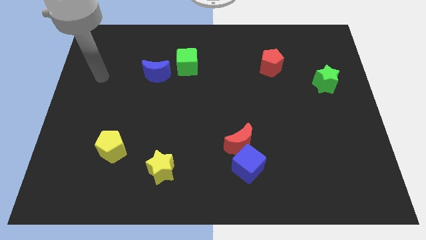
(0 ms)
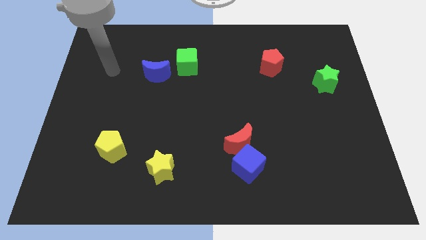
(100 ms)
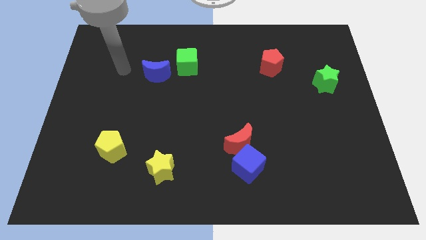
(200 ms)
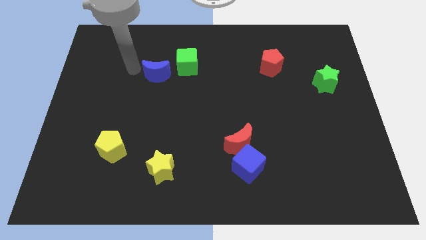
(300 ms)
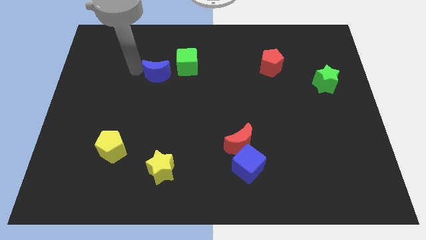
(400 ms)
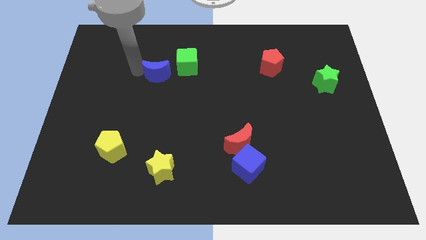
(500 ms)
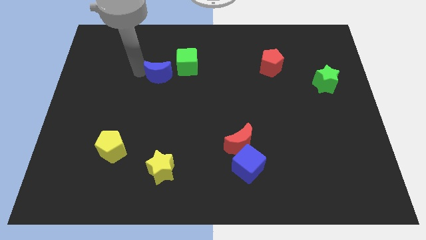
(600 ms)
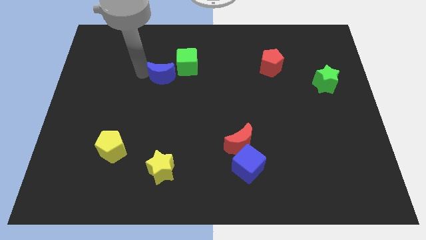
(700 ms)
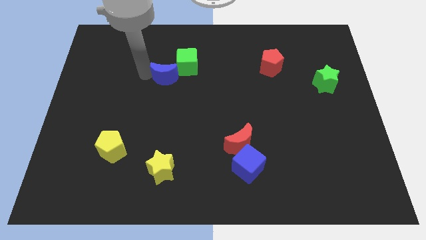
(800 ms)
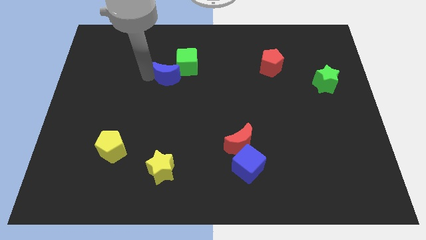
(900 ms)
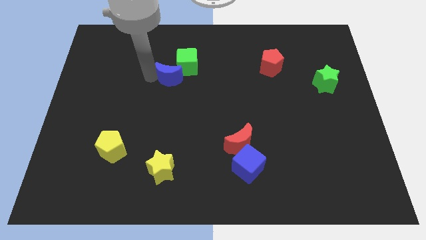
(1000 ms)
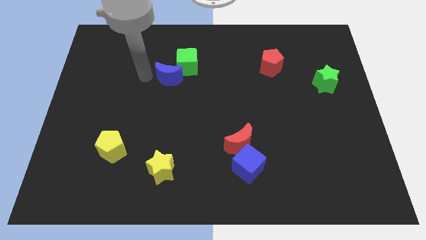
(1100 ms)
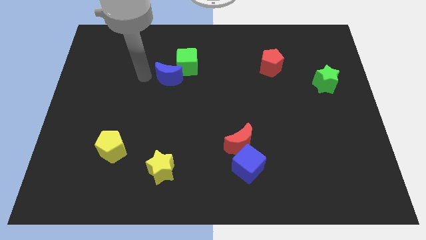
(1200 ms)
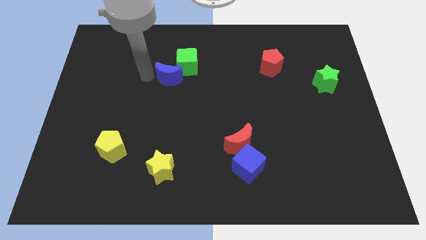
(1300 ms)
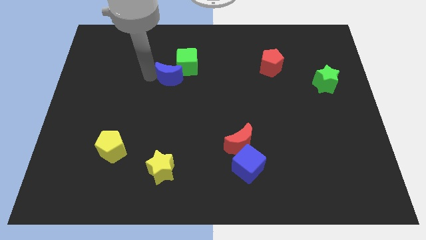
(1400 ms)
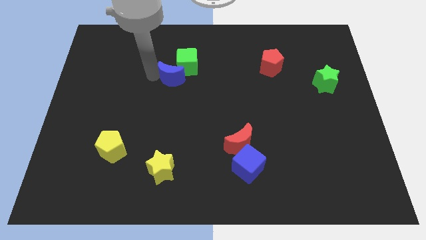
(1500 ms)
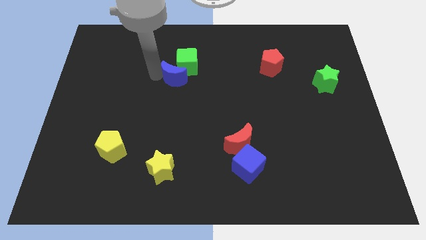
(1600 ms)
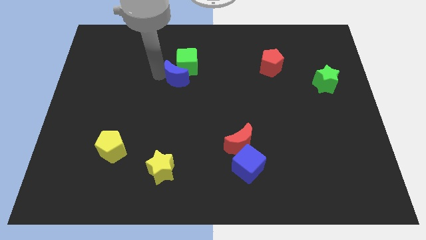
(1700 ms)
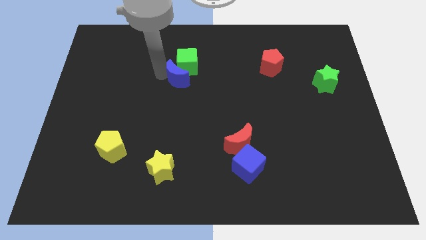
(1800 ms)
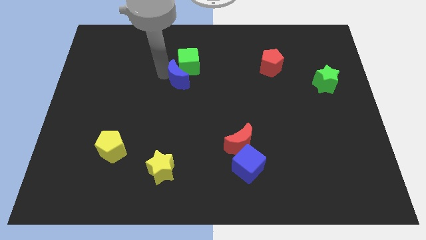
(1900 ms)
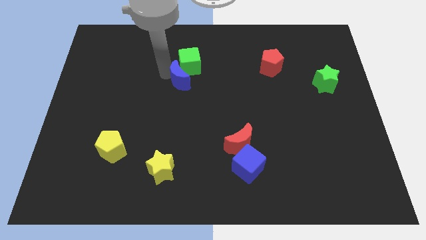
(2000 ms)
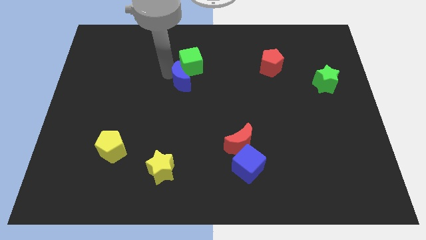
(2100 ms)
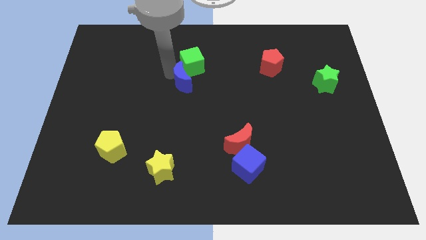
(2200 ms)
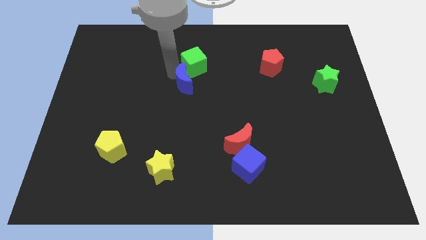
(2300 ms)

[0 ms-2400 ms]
slightly push the blue moon to the right

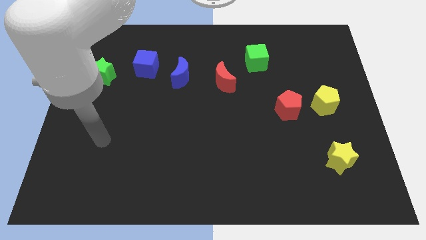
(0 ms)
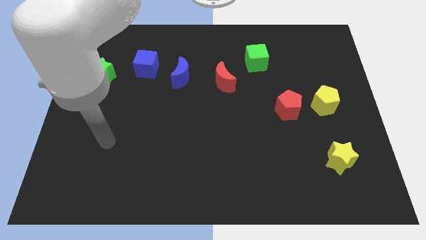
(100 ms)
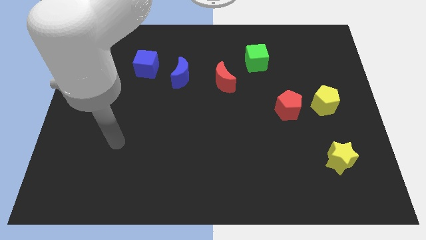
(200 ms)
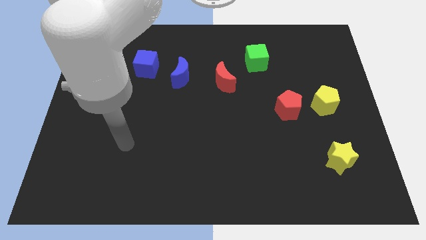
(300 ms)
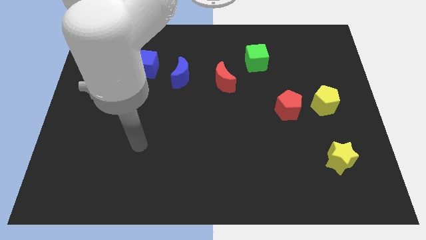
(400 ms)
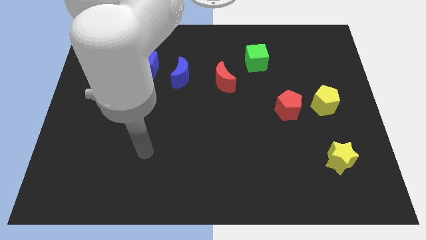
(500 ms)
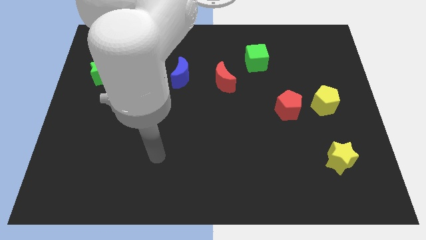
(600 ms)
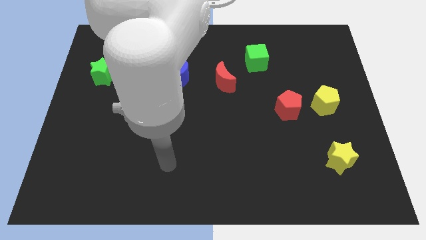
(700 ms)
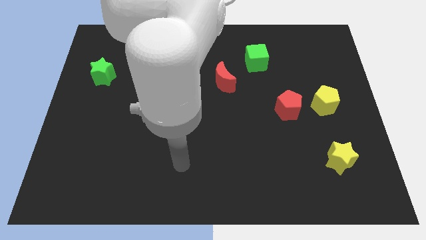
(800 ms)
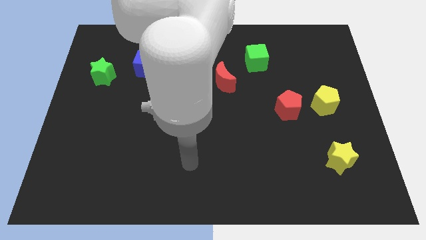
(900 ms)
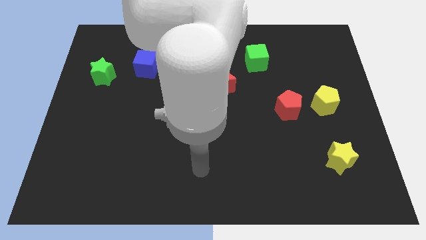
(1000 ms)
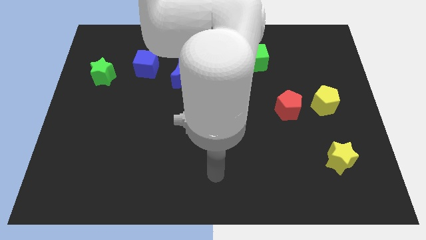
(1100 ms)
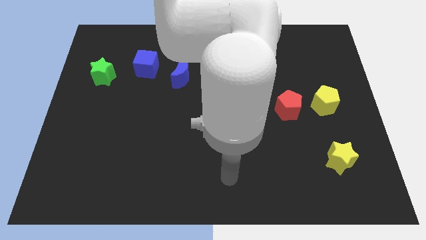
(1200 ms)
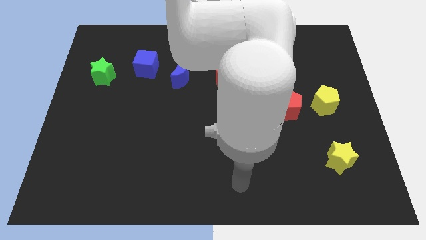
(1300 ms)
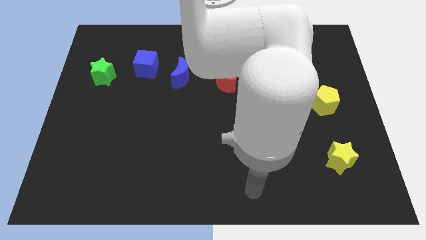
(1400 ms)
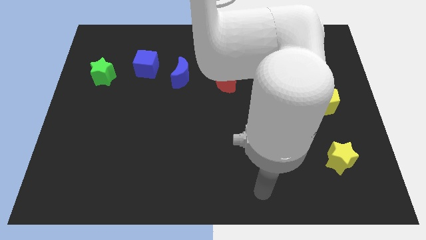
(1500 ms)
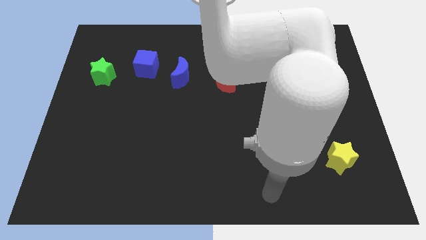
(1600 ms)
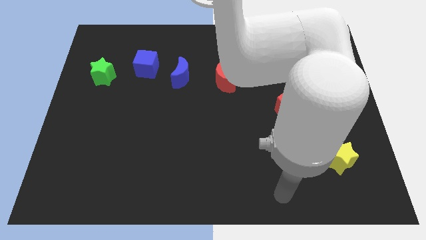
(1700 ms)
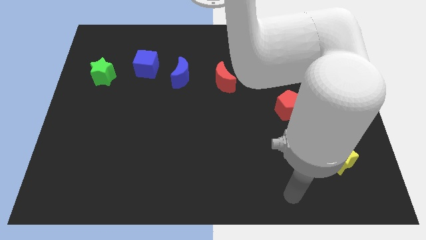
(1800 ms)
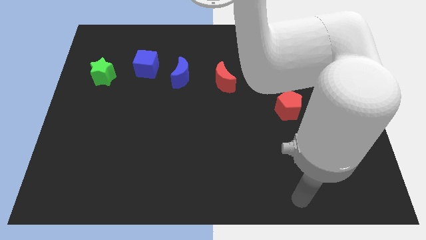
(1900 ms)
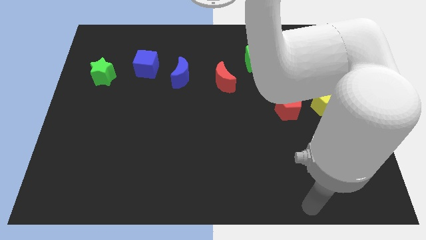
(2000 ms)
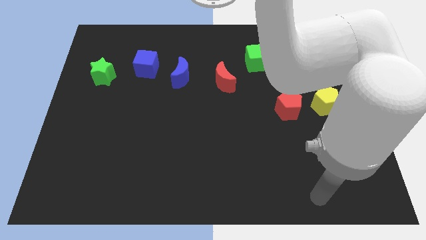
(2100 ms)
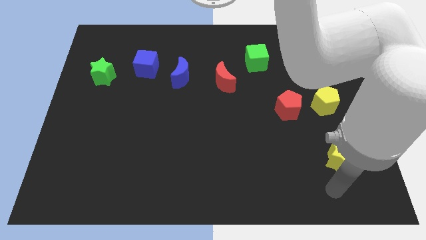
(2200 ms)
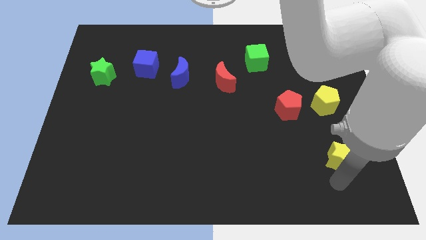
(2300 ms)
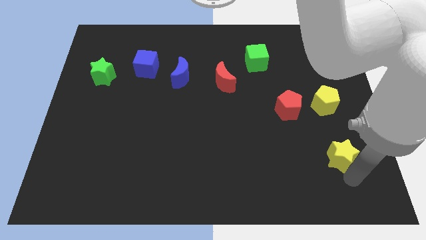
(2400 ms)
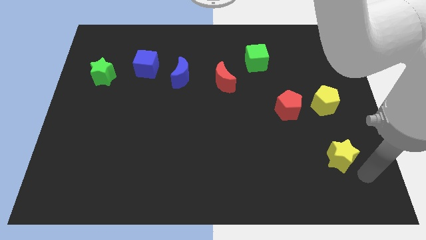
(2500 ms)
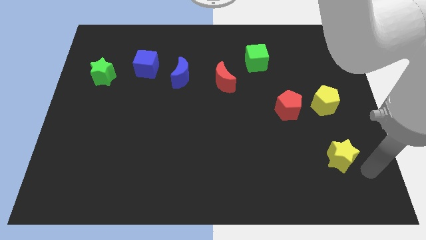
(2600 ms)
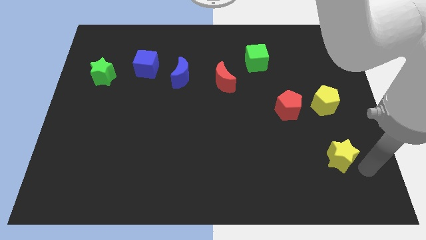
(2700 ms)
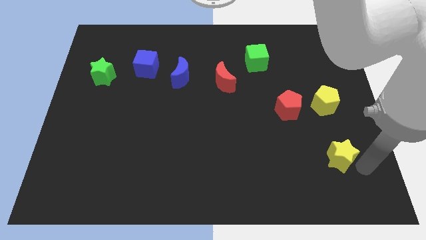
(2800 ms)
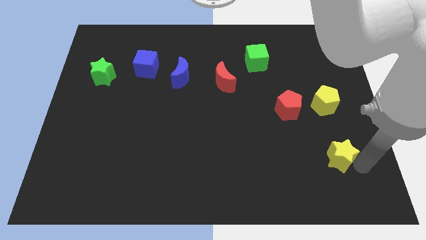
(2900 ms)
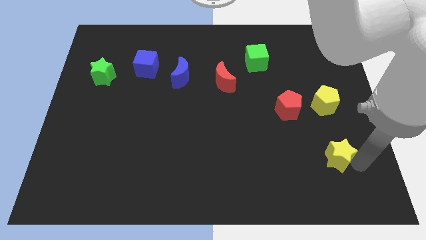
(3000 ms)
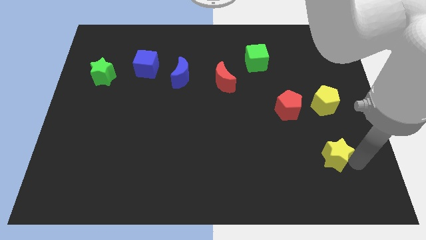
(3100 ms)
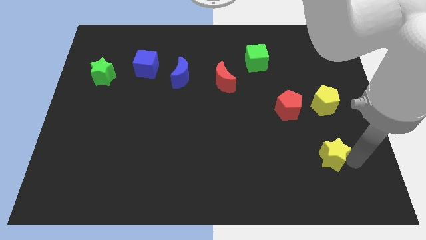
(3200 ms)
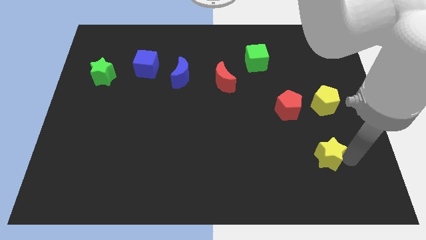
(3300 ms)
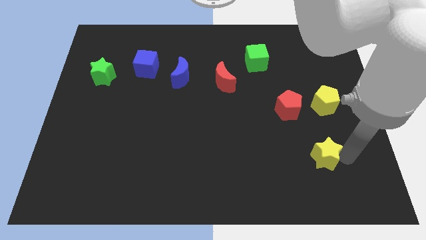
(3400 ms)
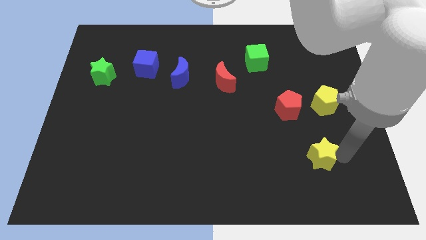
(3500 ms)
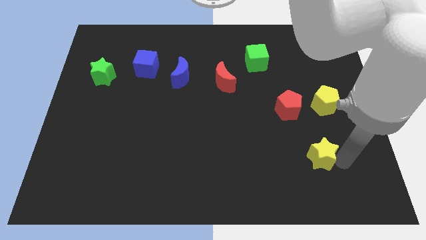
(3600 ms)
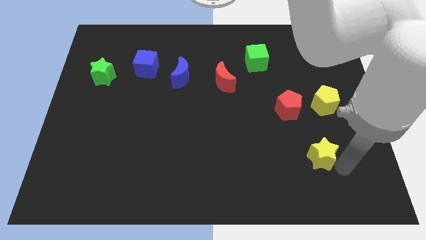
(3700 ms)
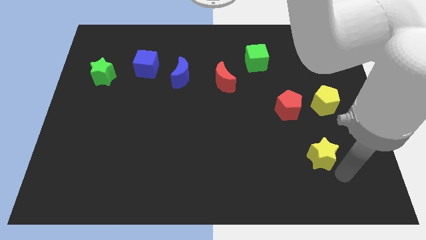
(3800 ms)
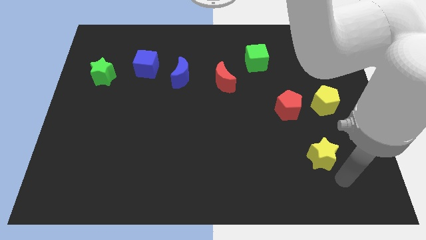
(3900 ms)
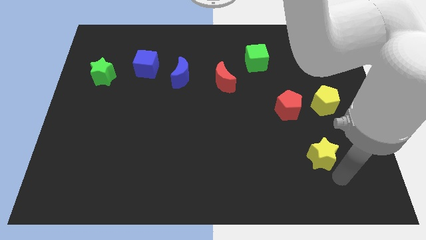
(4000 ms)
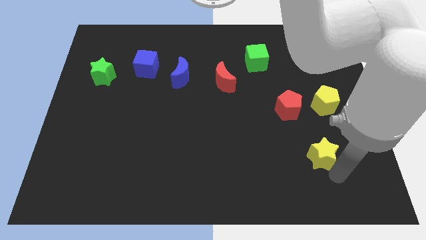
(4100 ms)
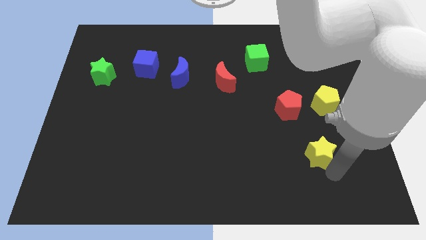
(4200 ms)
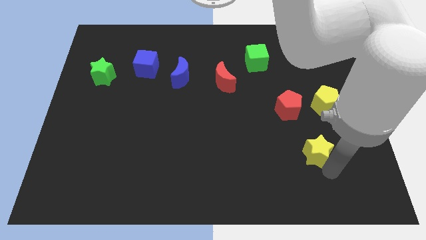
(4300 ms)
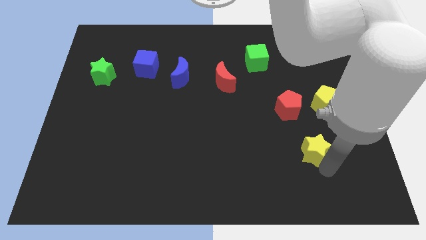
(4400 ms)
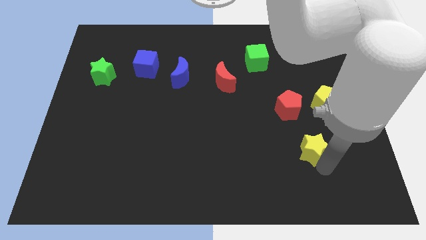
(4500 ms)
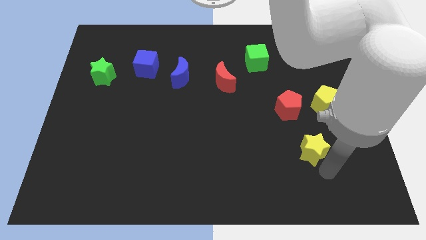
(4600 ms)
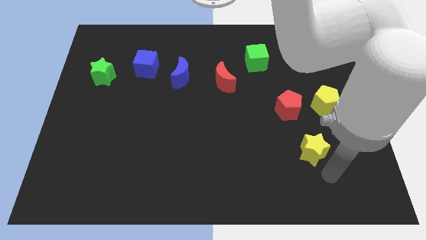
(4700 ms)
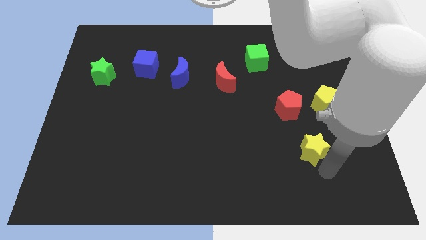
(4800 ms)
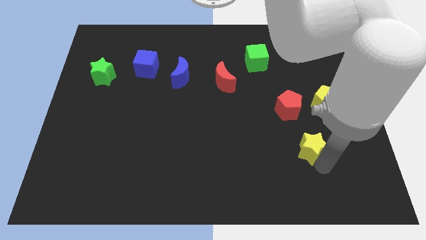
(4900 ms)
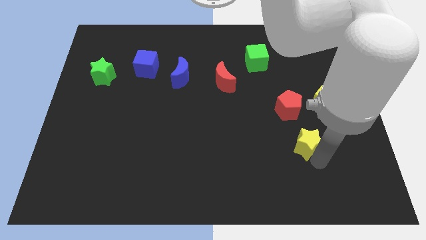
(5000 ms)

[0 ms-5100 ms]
slightly slide the yellow star diagonally up and left

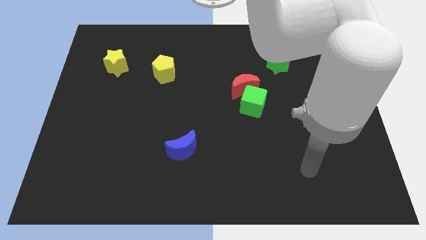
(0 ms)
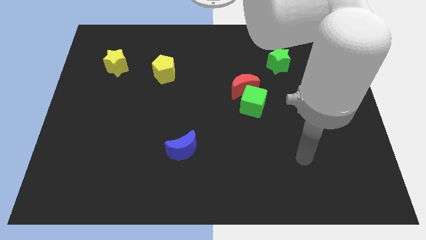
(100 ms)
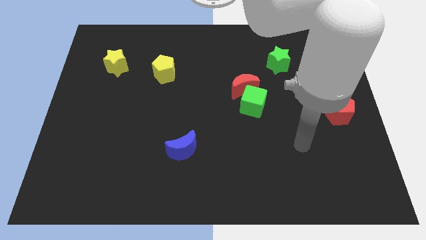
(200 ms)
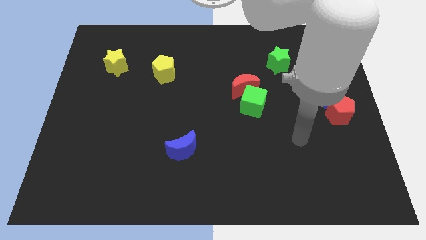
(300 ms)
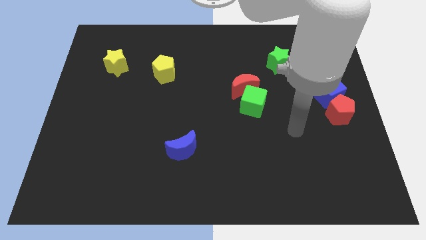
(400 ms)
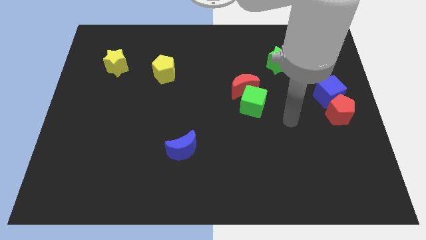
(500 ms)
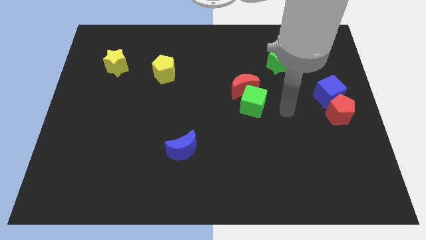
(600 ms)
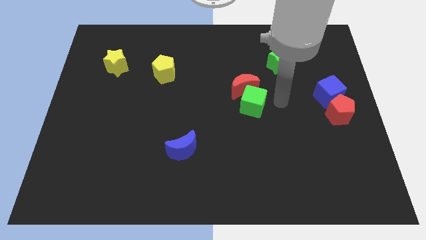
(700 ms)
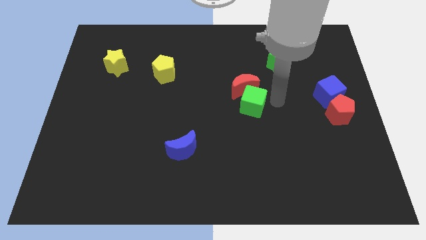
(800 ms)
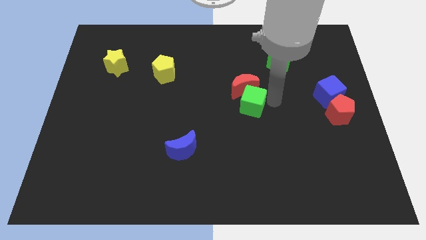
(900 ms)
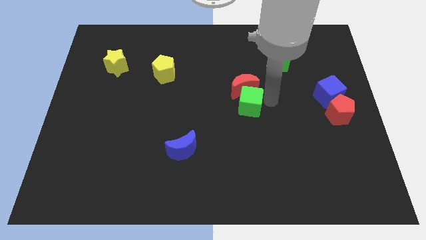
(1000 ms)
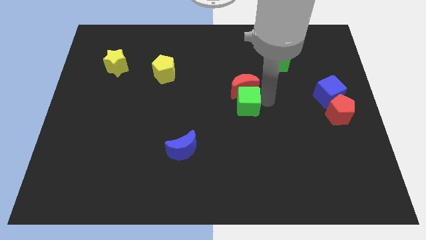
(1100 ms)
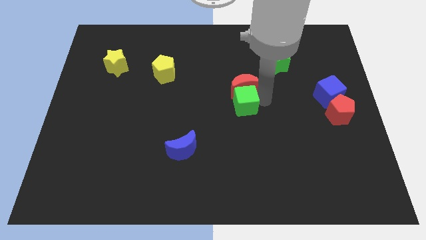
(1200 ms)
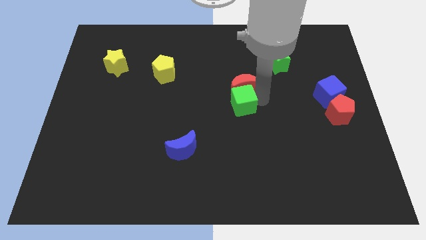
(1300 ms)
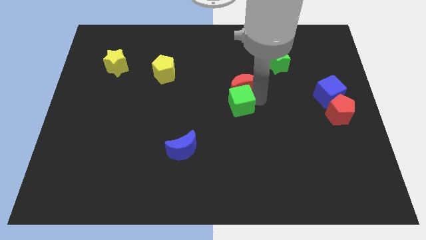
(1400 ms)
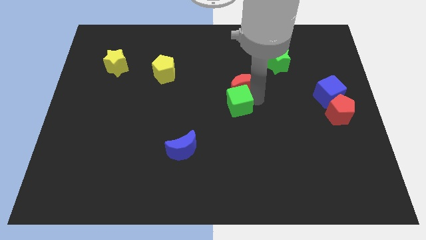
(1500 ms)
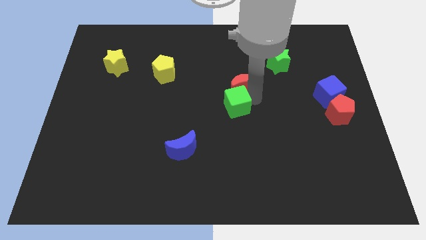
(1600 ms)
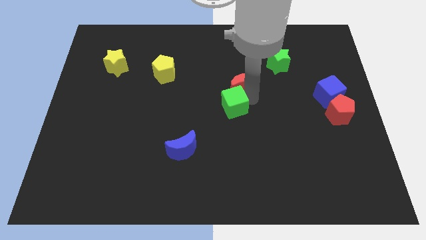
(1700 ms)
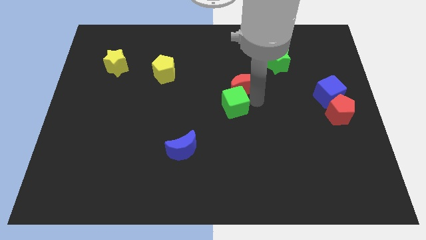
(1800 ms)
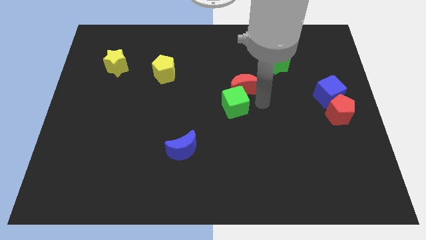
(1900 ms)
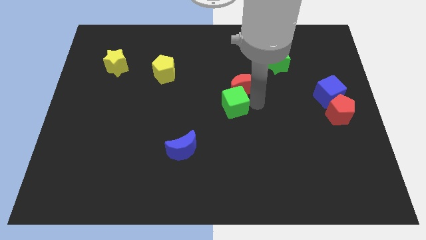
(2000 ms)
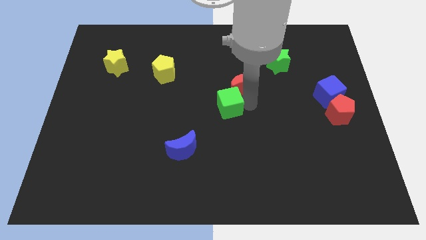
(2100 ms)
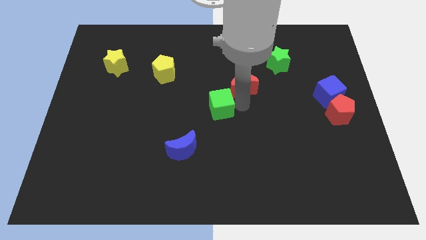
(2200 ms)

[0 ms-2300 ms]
push the green cube a little bit to the left
